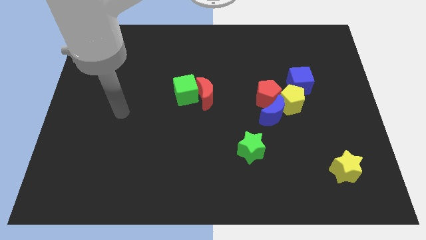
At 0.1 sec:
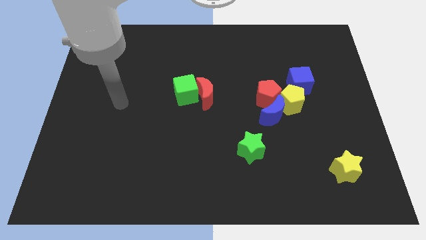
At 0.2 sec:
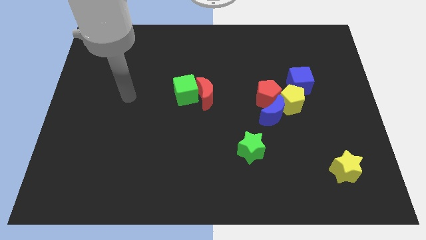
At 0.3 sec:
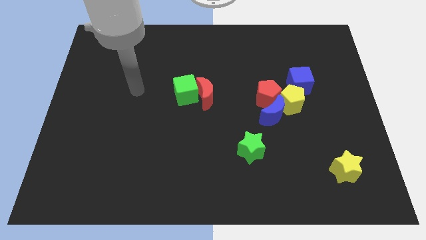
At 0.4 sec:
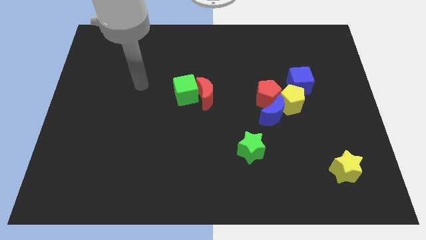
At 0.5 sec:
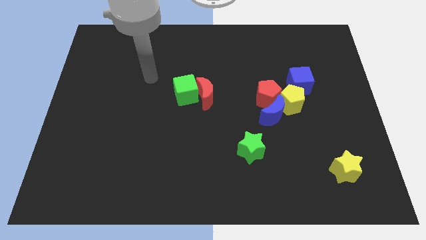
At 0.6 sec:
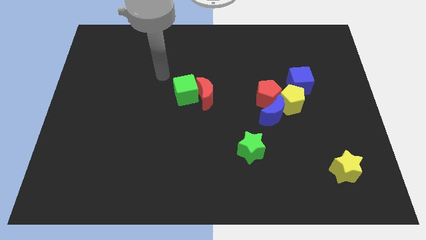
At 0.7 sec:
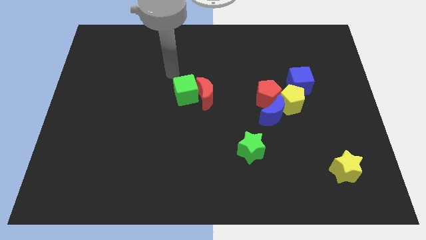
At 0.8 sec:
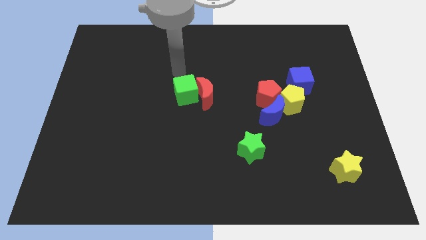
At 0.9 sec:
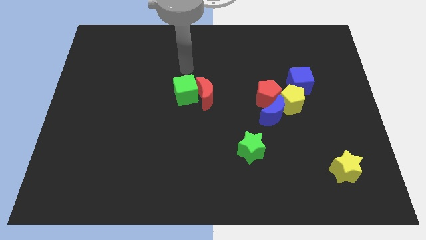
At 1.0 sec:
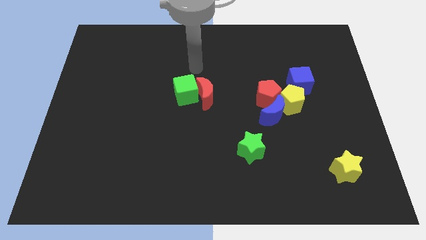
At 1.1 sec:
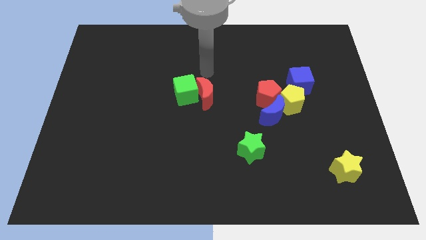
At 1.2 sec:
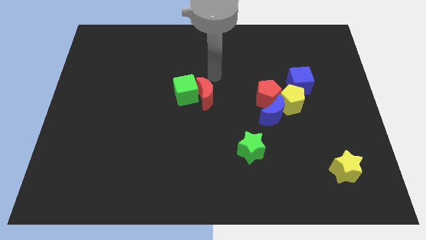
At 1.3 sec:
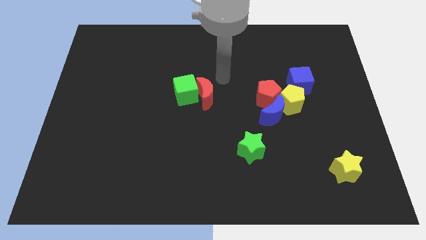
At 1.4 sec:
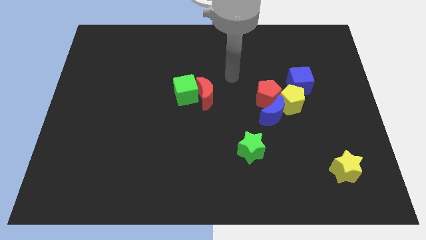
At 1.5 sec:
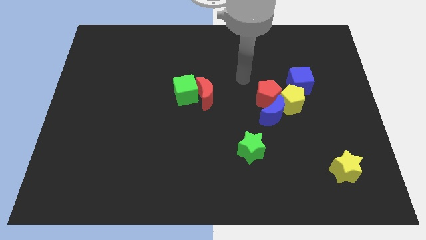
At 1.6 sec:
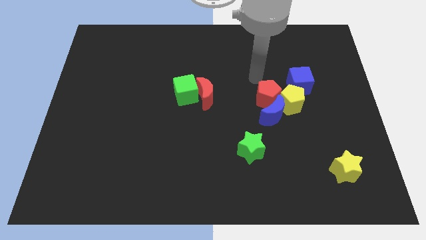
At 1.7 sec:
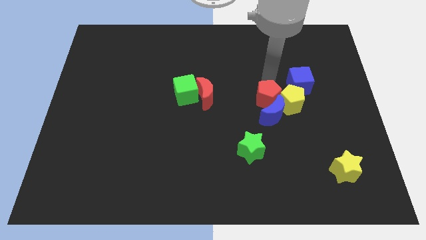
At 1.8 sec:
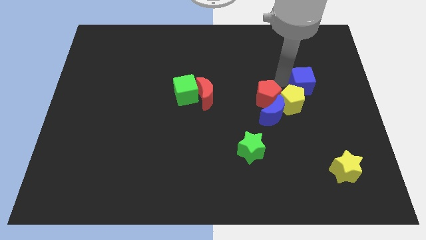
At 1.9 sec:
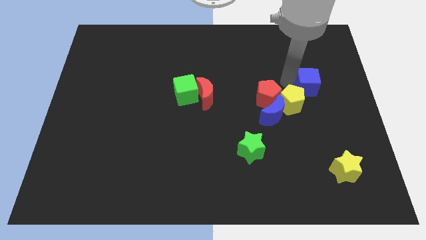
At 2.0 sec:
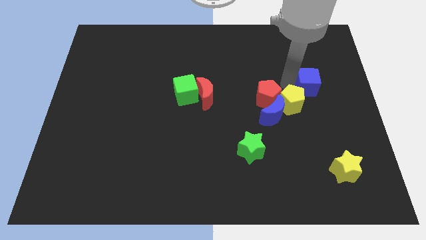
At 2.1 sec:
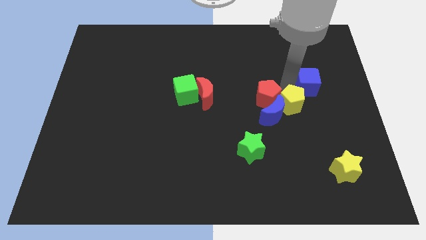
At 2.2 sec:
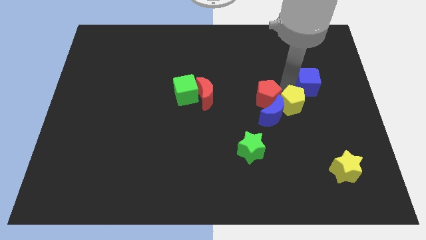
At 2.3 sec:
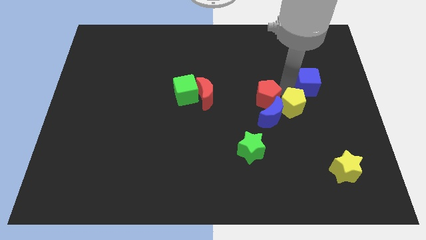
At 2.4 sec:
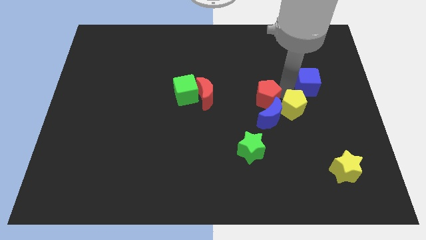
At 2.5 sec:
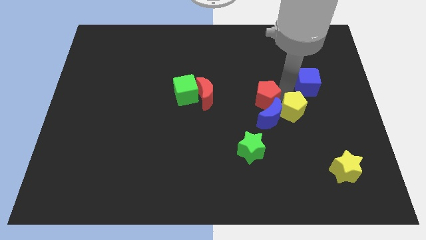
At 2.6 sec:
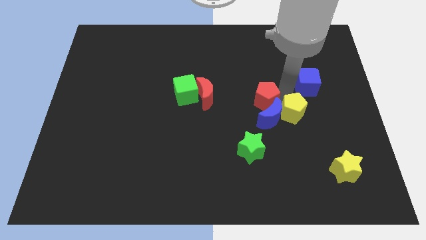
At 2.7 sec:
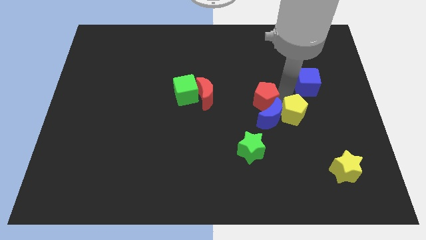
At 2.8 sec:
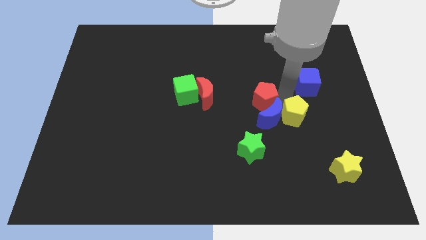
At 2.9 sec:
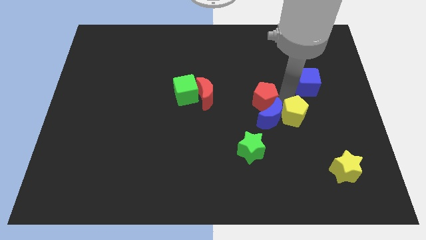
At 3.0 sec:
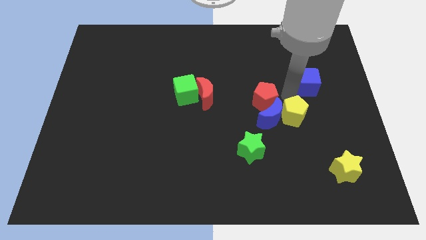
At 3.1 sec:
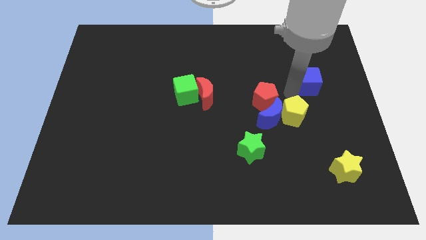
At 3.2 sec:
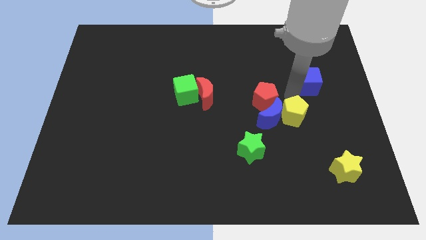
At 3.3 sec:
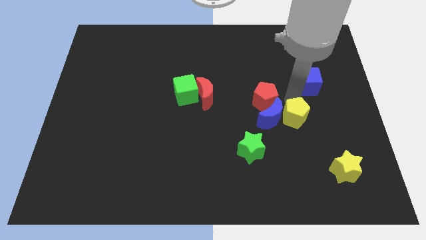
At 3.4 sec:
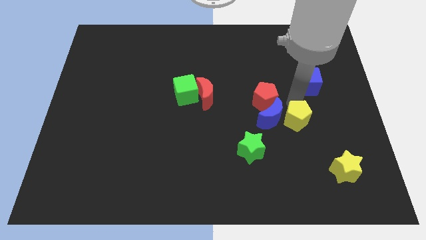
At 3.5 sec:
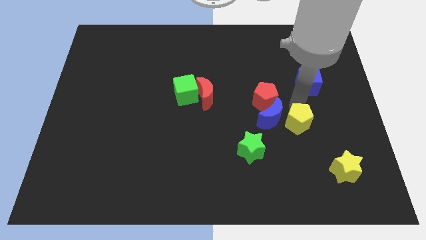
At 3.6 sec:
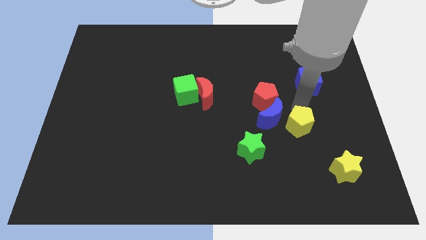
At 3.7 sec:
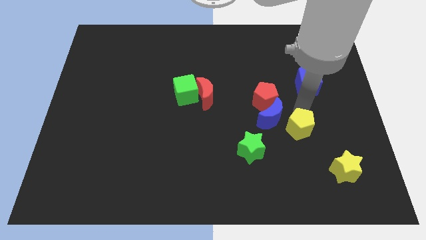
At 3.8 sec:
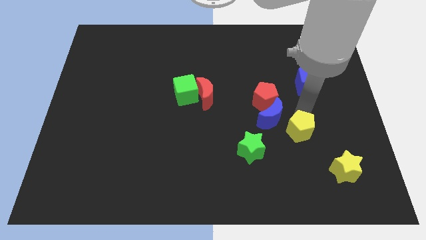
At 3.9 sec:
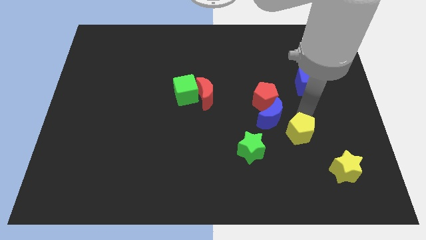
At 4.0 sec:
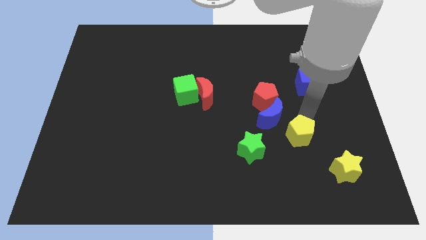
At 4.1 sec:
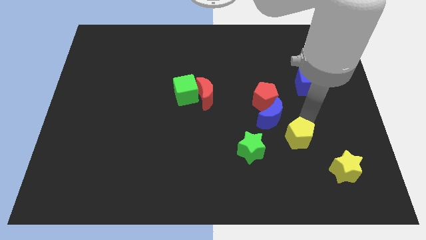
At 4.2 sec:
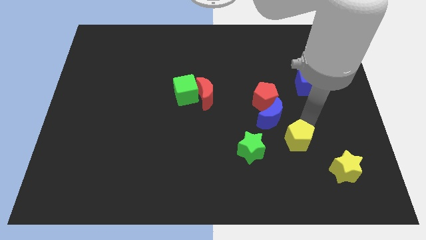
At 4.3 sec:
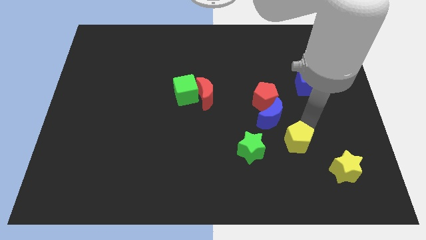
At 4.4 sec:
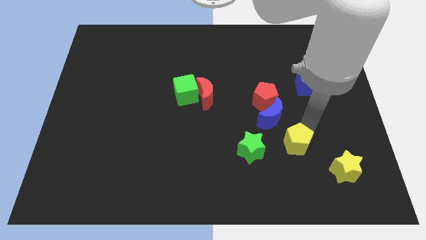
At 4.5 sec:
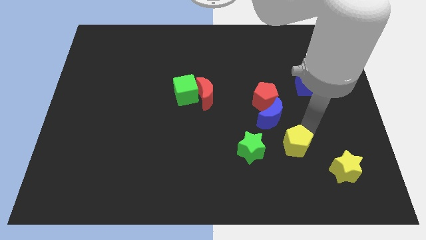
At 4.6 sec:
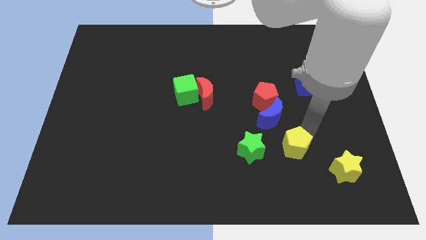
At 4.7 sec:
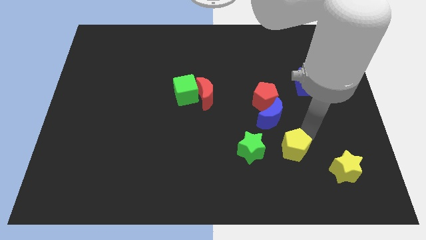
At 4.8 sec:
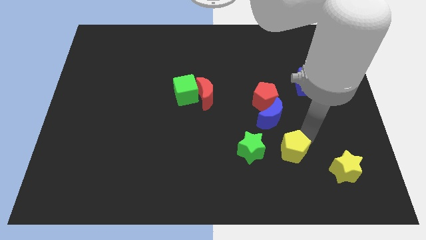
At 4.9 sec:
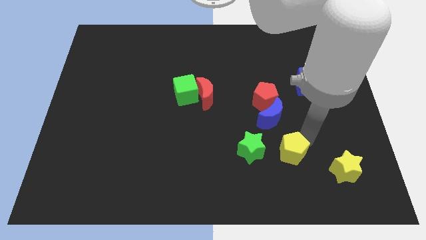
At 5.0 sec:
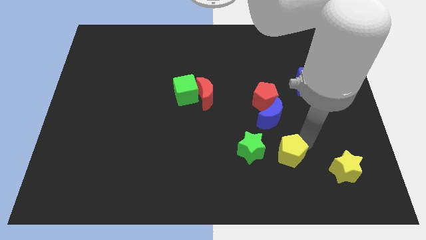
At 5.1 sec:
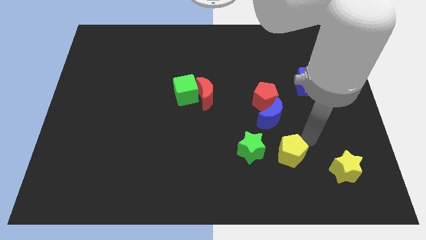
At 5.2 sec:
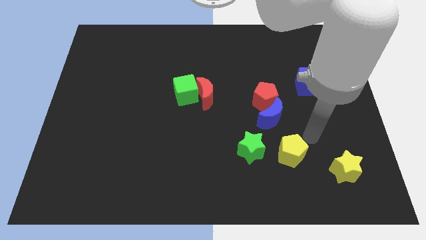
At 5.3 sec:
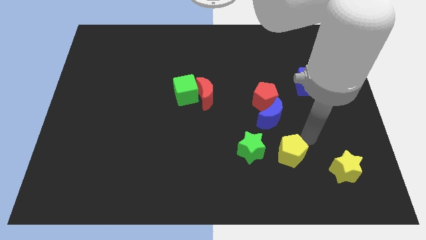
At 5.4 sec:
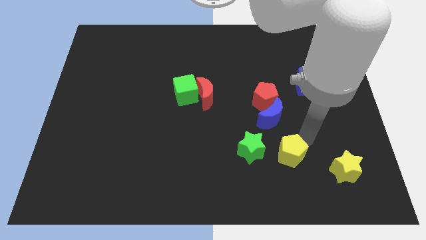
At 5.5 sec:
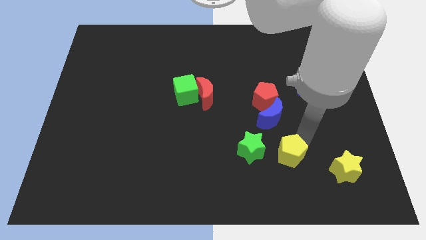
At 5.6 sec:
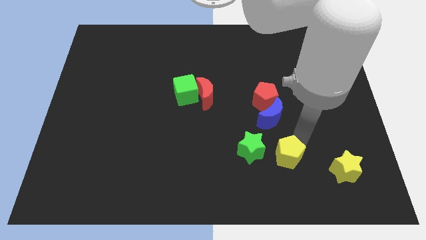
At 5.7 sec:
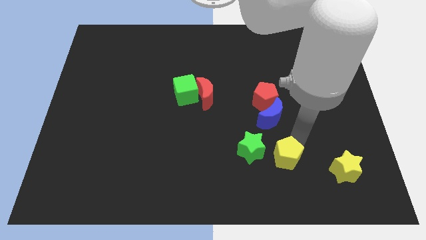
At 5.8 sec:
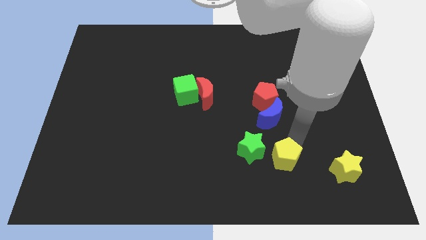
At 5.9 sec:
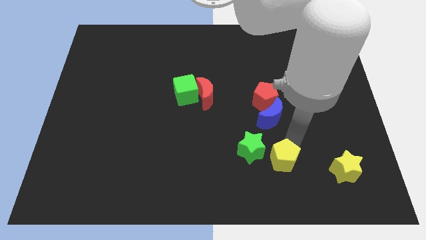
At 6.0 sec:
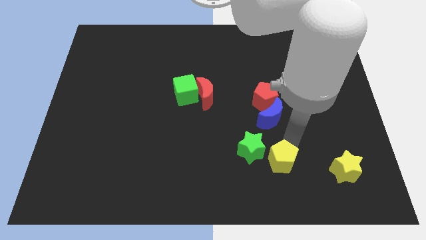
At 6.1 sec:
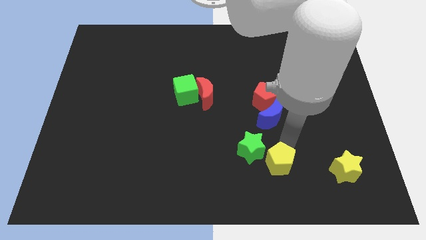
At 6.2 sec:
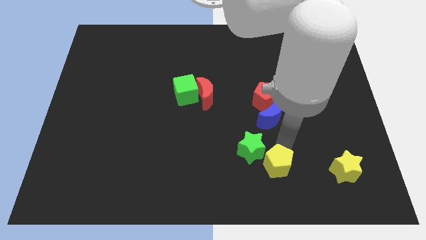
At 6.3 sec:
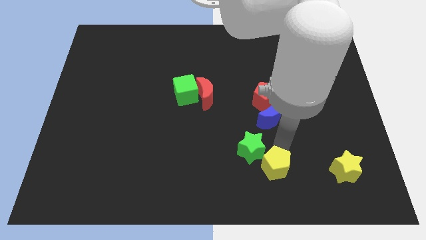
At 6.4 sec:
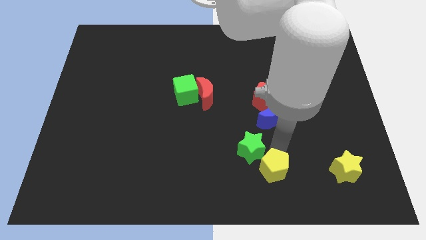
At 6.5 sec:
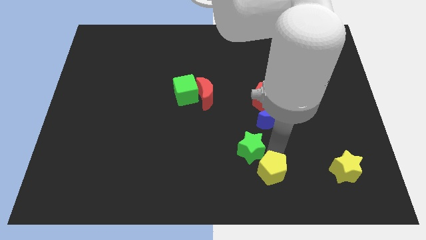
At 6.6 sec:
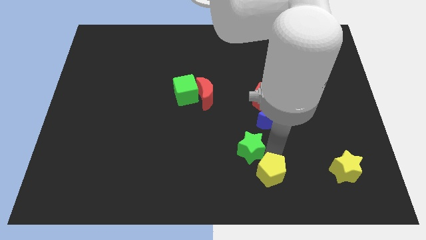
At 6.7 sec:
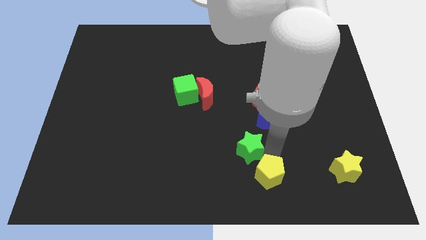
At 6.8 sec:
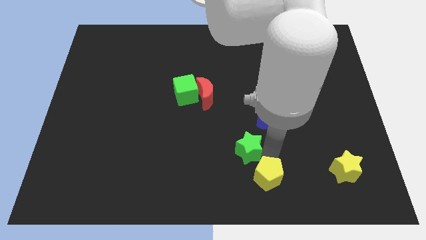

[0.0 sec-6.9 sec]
slide the yellow pentagon to the bottom side
